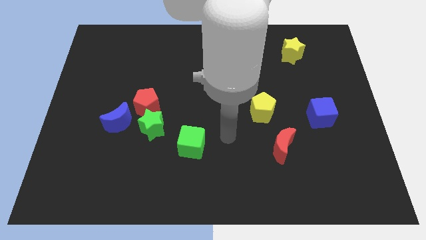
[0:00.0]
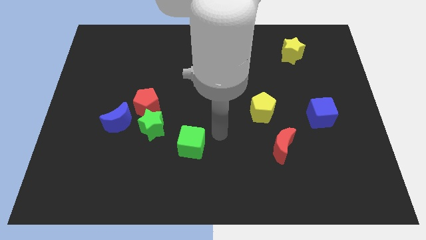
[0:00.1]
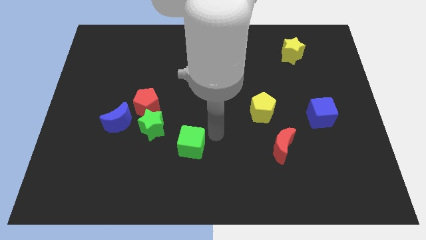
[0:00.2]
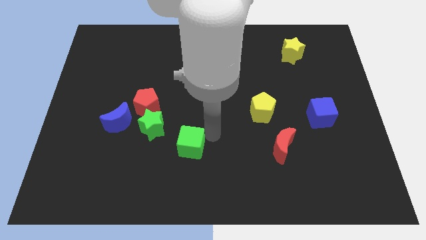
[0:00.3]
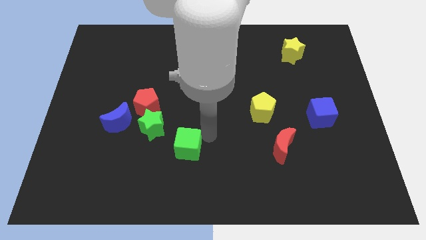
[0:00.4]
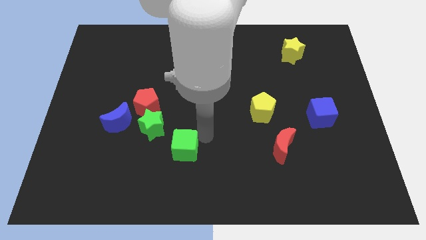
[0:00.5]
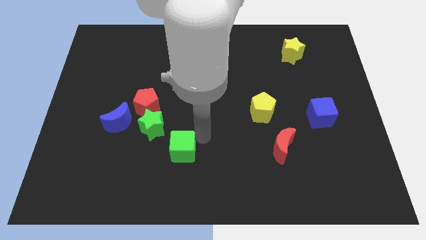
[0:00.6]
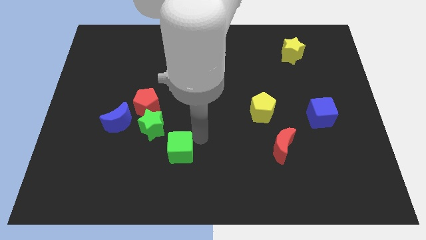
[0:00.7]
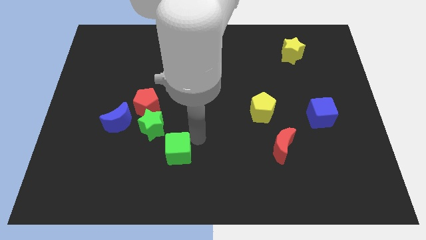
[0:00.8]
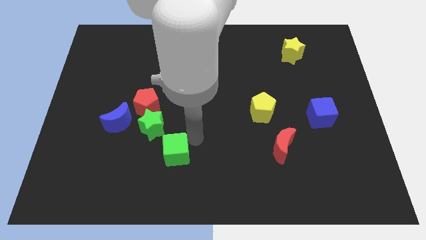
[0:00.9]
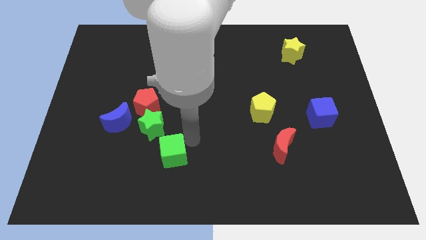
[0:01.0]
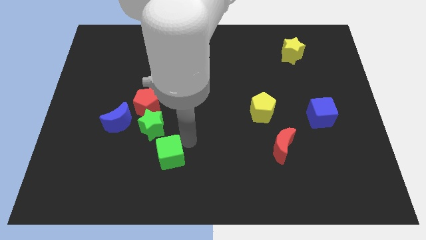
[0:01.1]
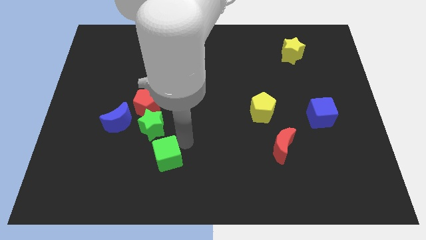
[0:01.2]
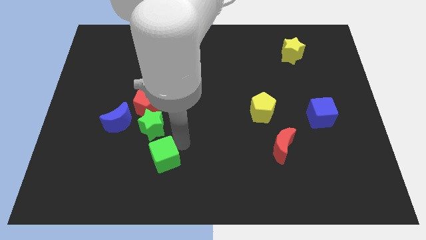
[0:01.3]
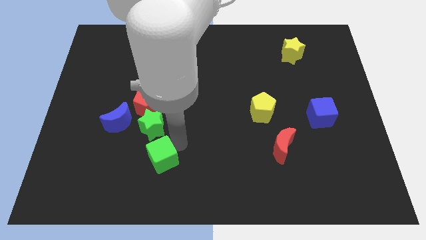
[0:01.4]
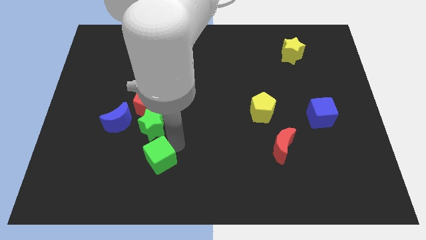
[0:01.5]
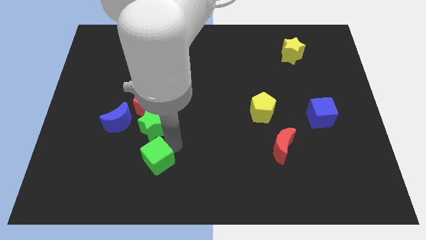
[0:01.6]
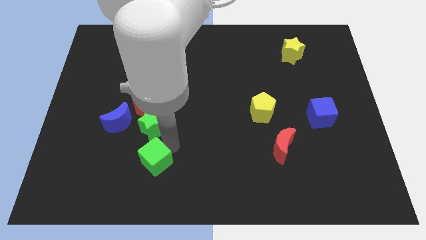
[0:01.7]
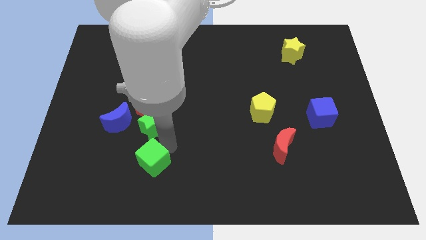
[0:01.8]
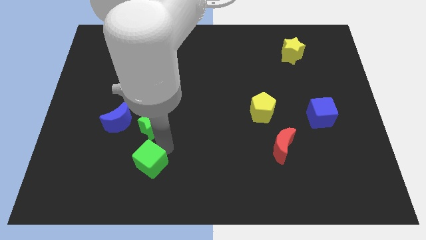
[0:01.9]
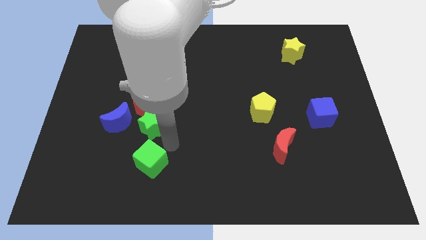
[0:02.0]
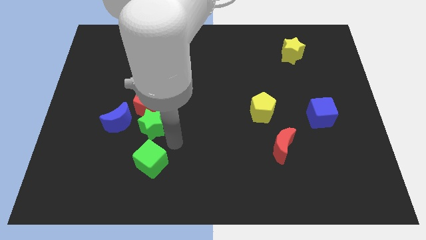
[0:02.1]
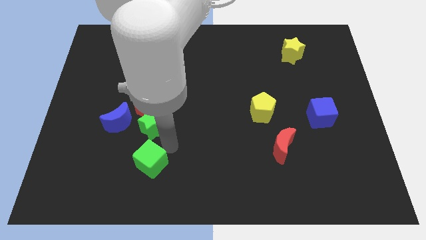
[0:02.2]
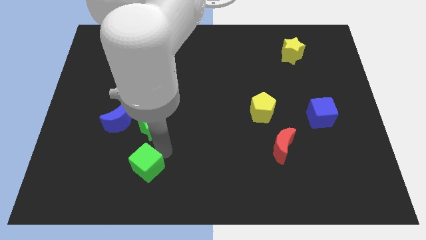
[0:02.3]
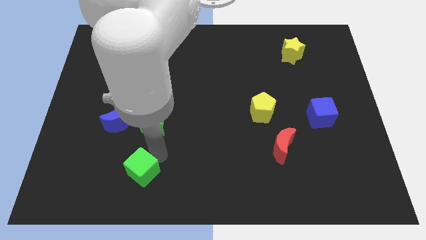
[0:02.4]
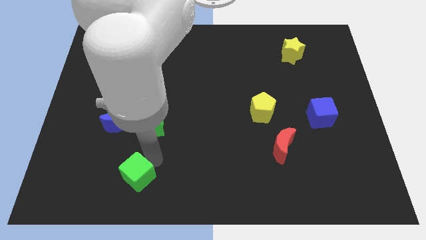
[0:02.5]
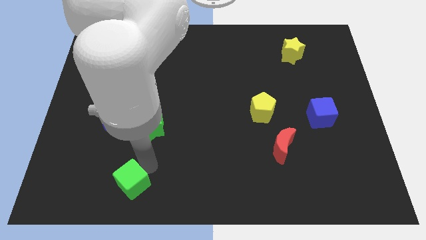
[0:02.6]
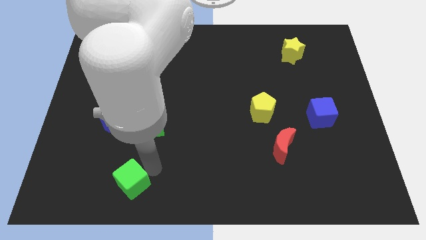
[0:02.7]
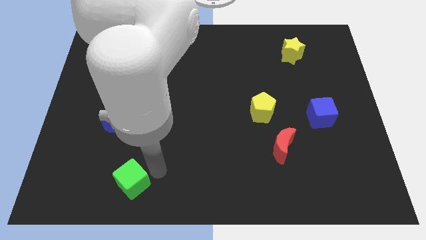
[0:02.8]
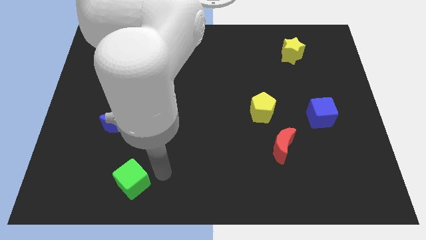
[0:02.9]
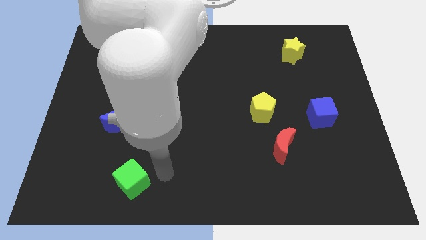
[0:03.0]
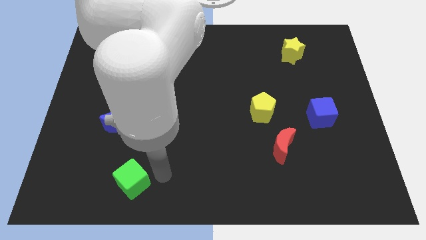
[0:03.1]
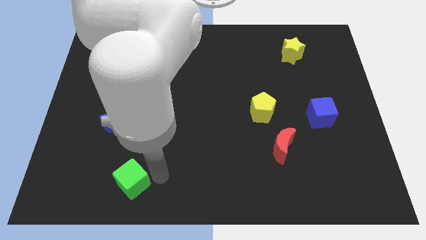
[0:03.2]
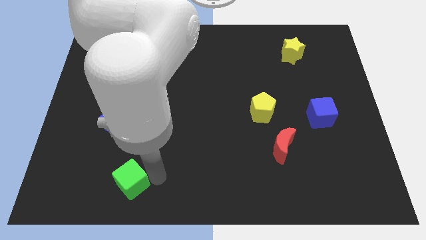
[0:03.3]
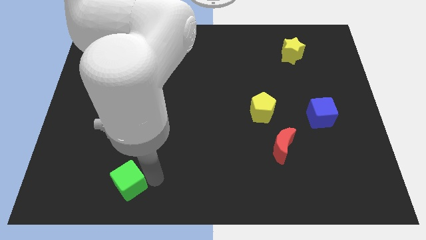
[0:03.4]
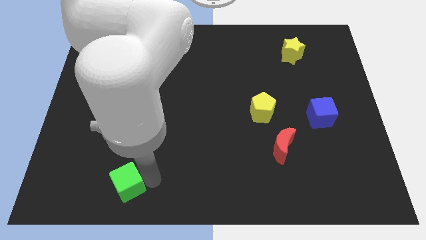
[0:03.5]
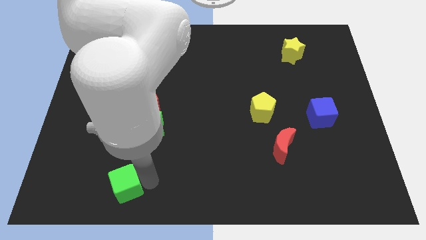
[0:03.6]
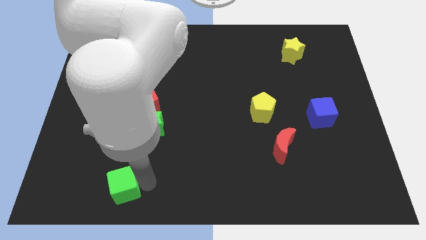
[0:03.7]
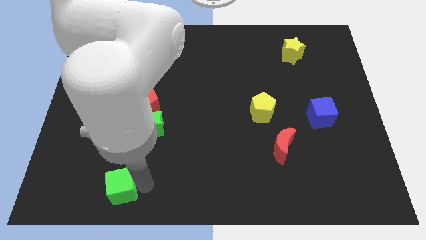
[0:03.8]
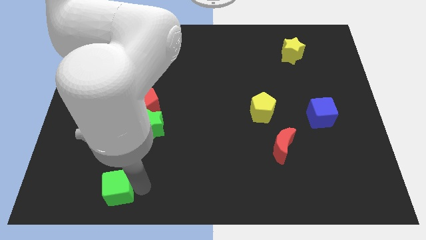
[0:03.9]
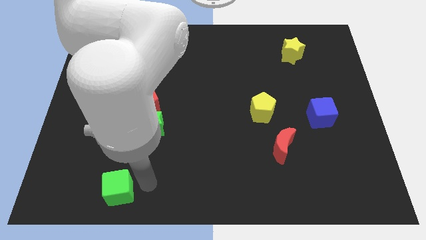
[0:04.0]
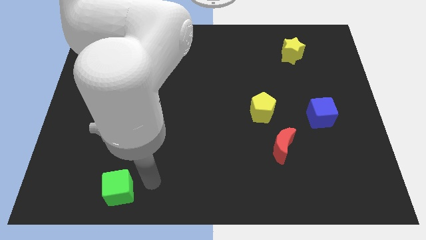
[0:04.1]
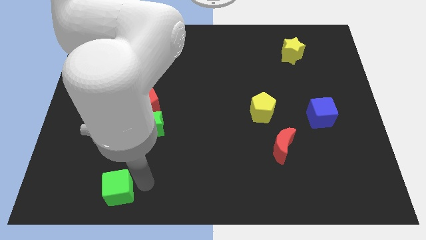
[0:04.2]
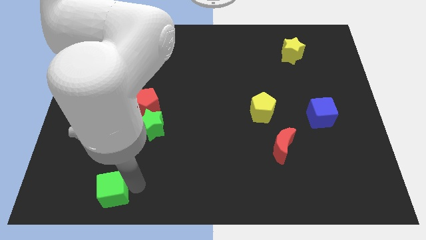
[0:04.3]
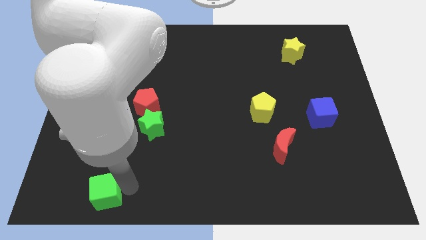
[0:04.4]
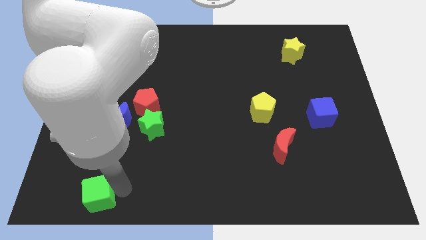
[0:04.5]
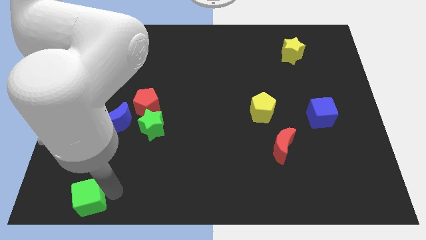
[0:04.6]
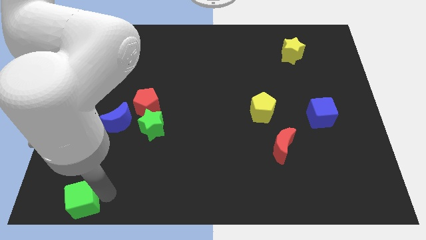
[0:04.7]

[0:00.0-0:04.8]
slide the green cube to the lower left corner

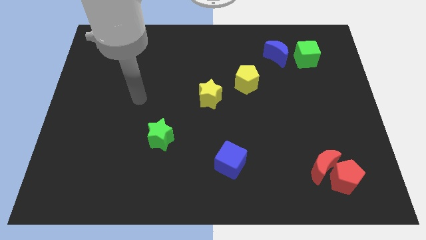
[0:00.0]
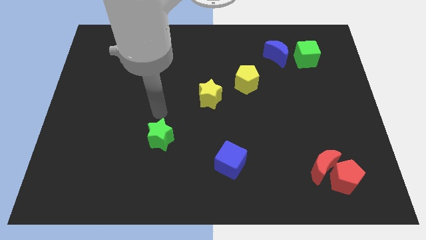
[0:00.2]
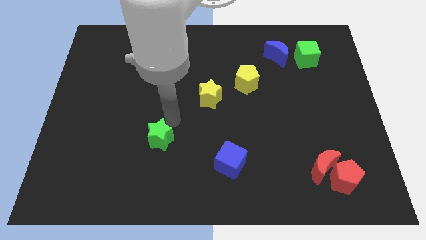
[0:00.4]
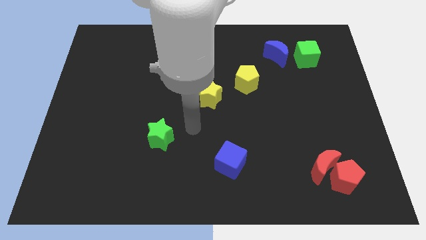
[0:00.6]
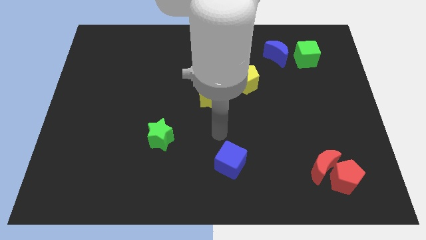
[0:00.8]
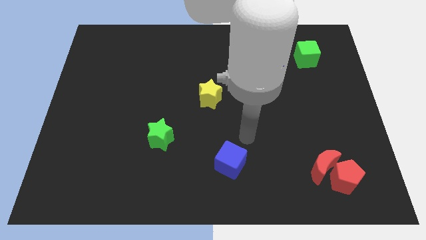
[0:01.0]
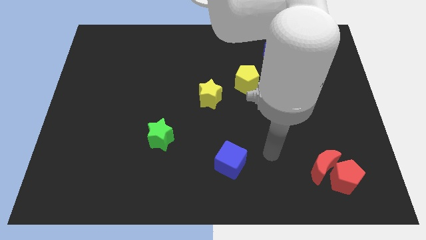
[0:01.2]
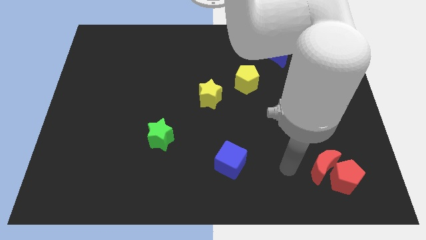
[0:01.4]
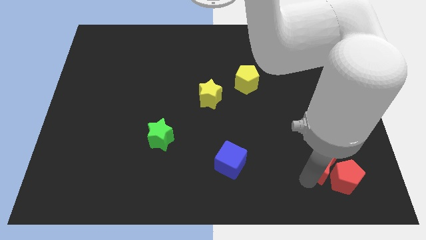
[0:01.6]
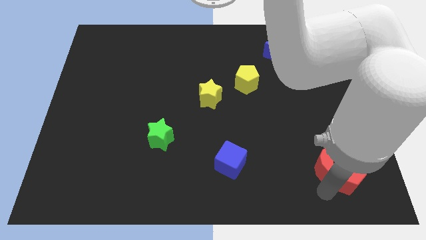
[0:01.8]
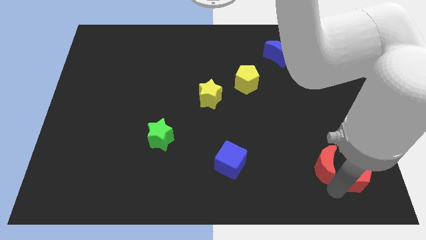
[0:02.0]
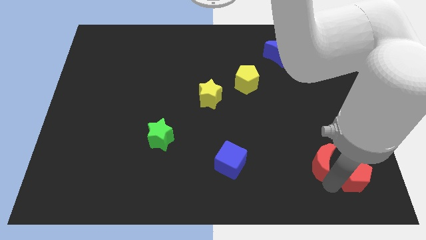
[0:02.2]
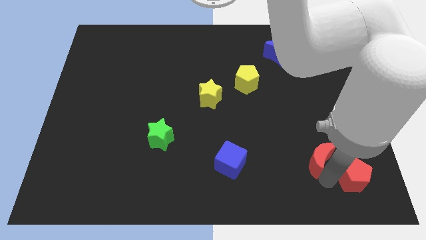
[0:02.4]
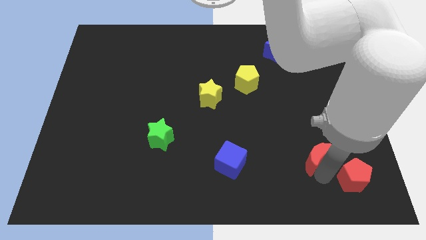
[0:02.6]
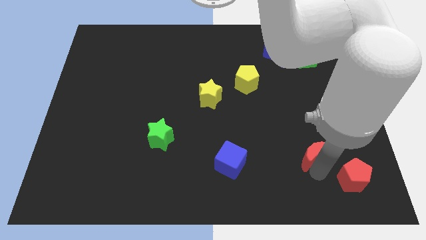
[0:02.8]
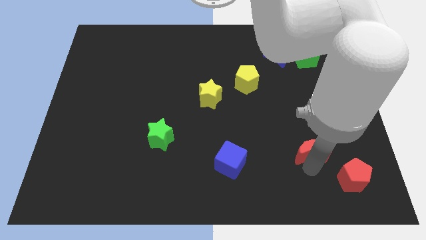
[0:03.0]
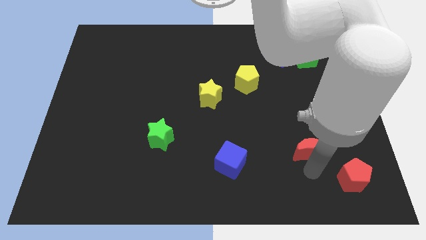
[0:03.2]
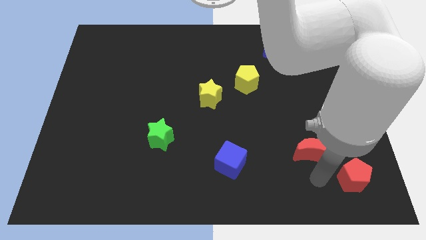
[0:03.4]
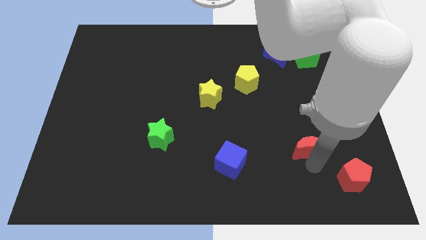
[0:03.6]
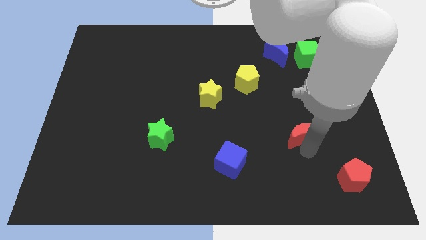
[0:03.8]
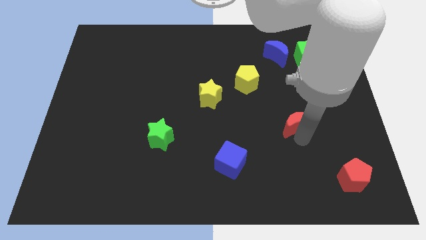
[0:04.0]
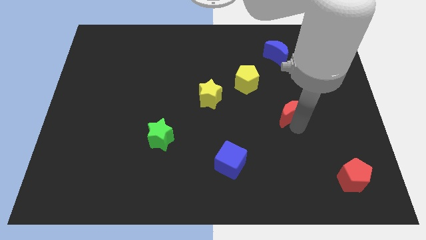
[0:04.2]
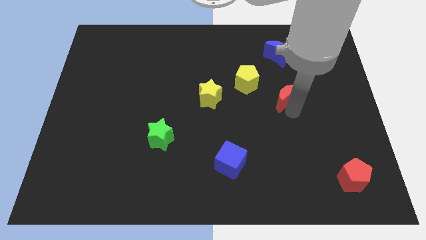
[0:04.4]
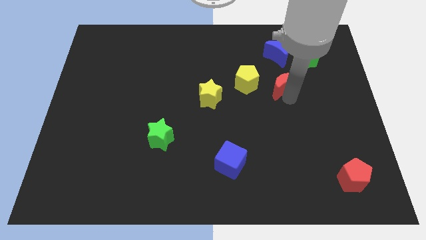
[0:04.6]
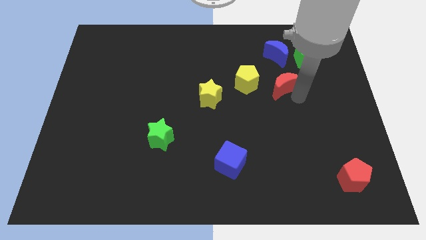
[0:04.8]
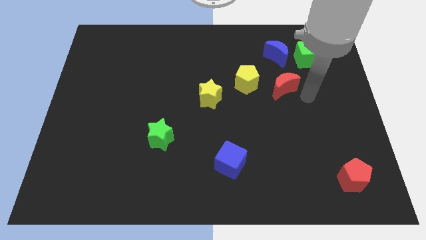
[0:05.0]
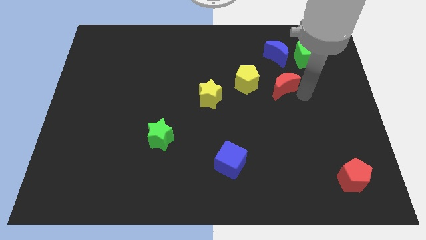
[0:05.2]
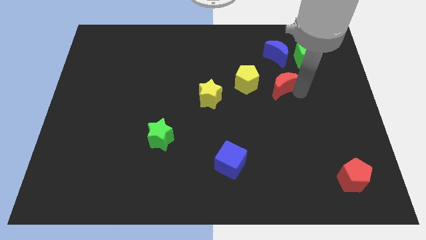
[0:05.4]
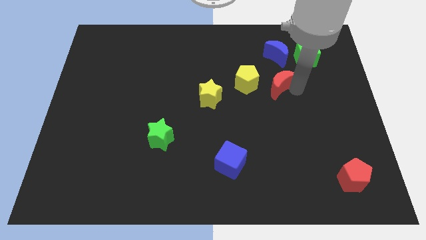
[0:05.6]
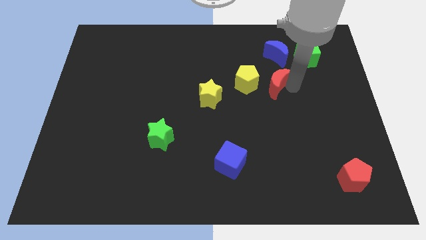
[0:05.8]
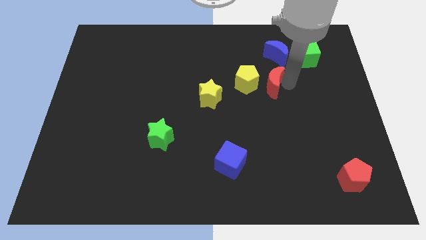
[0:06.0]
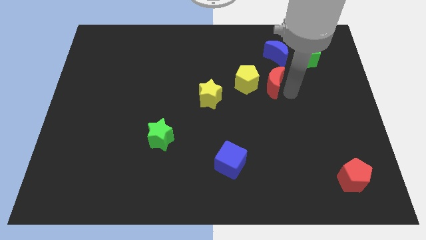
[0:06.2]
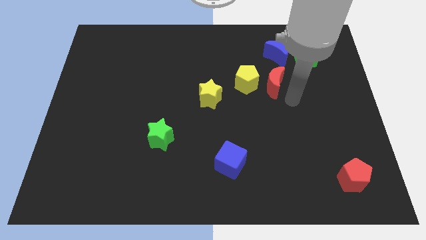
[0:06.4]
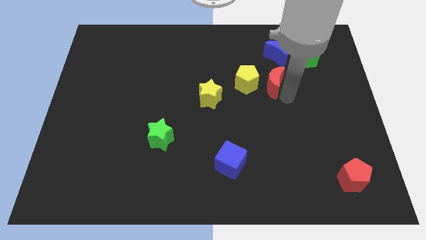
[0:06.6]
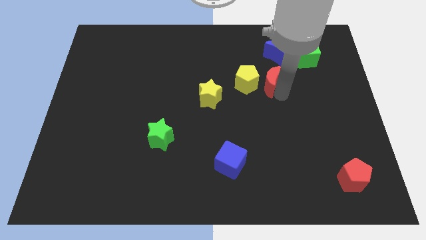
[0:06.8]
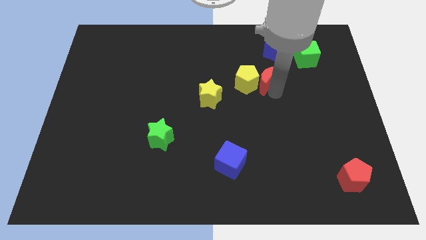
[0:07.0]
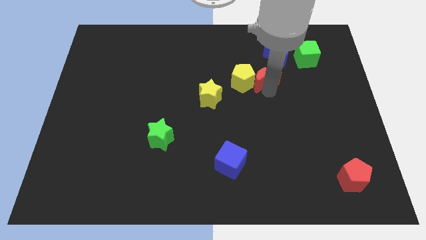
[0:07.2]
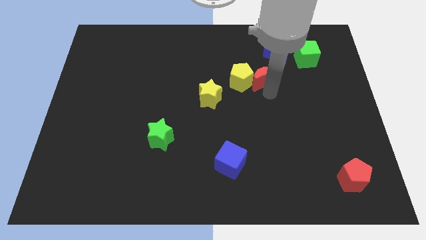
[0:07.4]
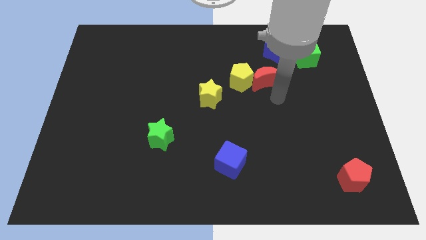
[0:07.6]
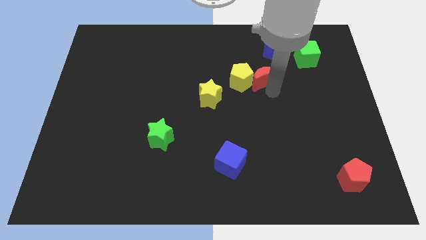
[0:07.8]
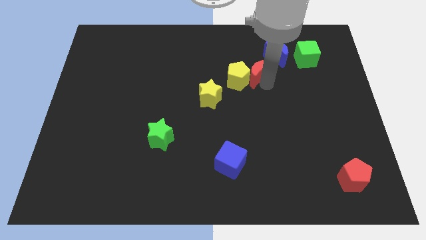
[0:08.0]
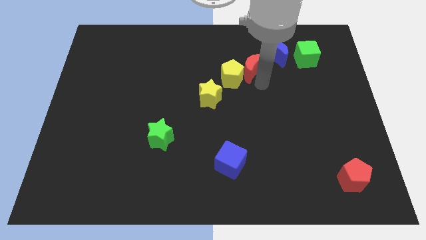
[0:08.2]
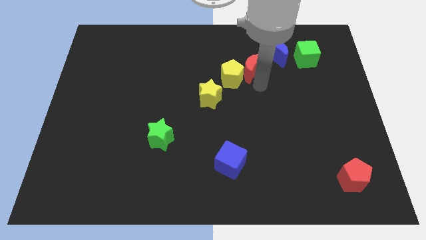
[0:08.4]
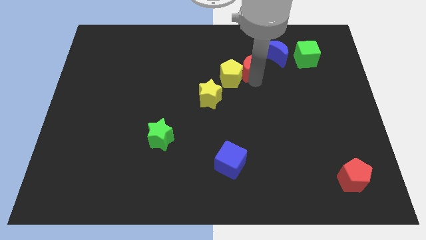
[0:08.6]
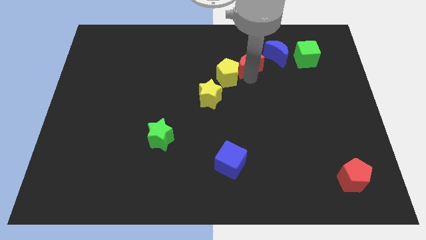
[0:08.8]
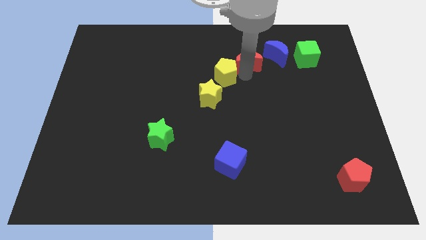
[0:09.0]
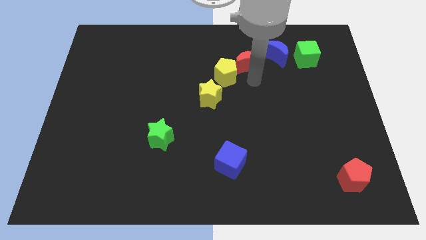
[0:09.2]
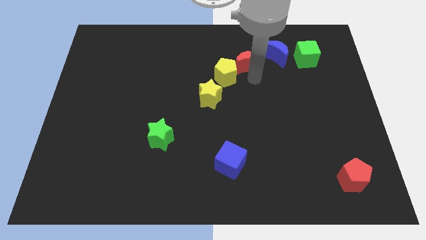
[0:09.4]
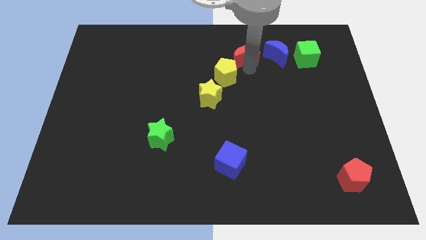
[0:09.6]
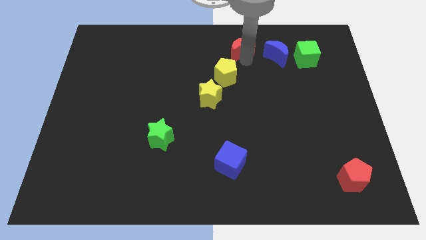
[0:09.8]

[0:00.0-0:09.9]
slide the red moon to the top
